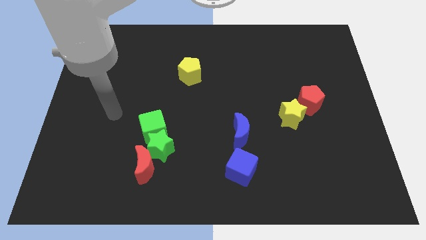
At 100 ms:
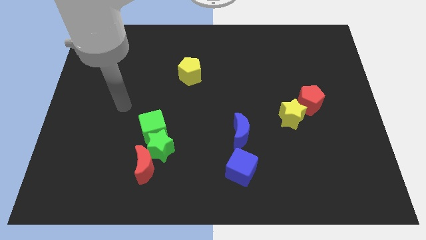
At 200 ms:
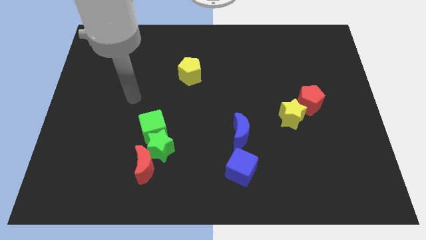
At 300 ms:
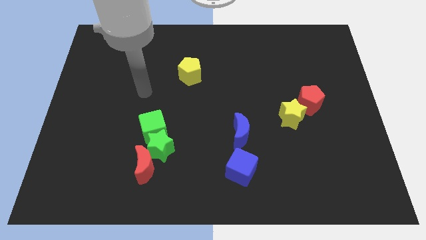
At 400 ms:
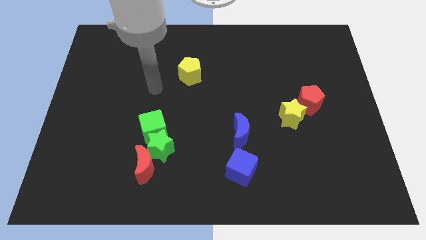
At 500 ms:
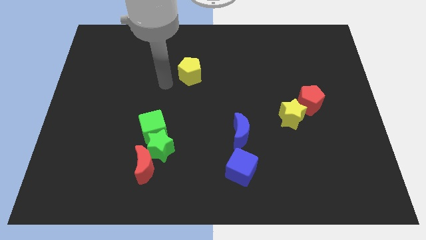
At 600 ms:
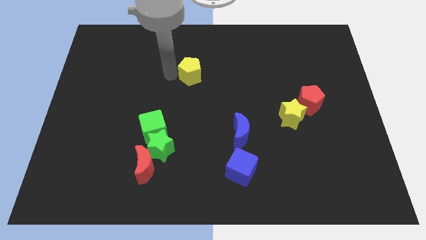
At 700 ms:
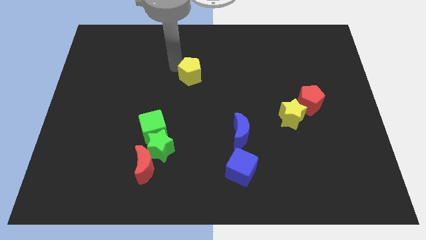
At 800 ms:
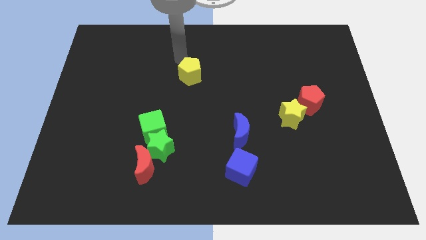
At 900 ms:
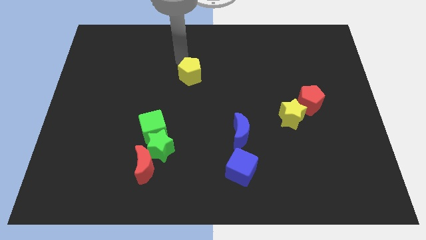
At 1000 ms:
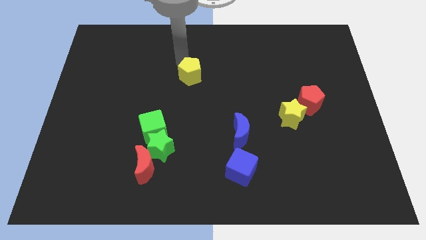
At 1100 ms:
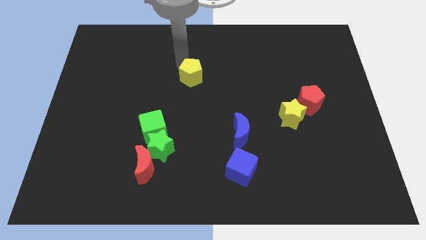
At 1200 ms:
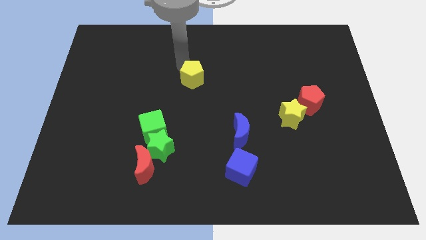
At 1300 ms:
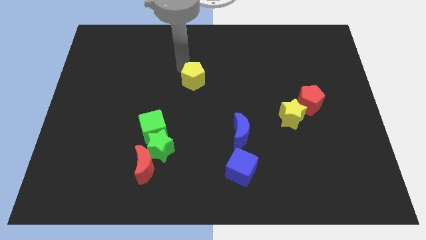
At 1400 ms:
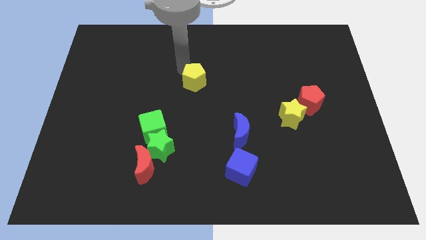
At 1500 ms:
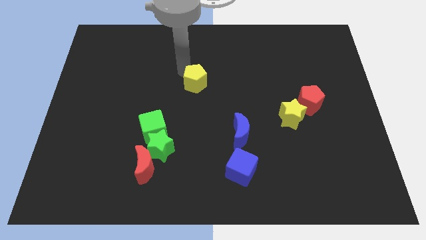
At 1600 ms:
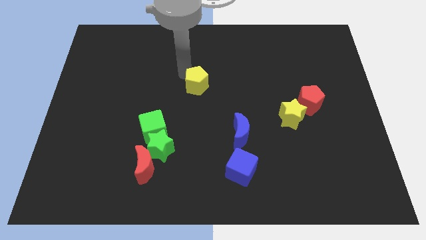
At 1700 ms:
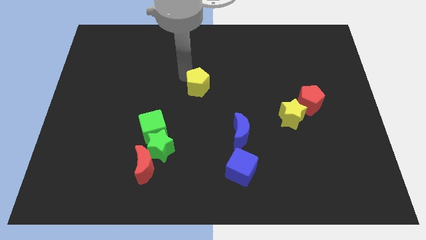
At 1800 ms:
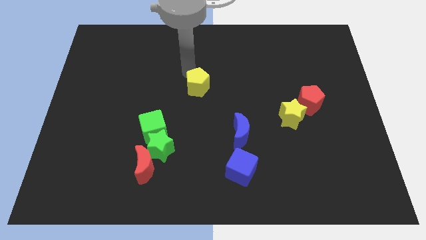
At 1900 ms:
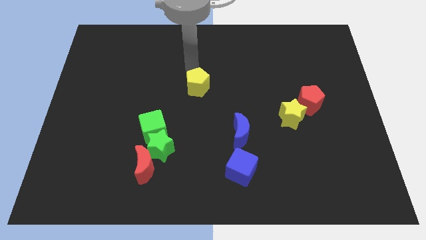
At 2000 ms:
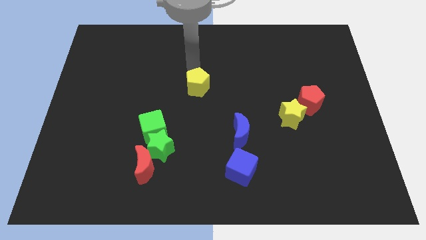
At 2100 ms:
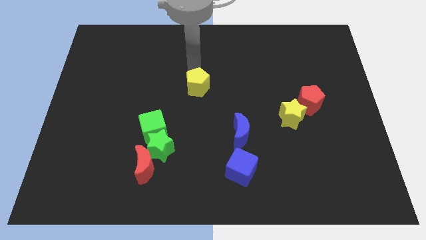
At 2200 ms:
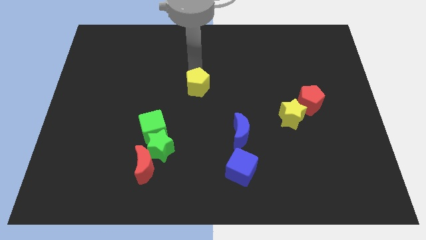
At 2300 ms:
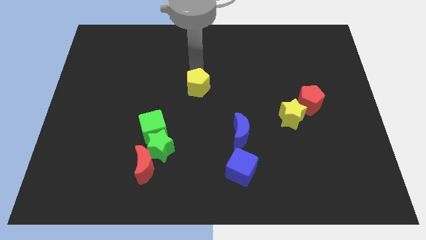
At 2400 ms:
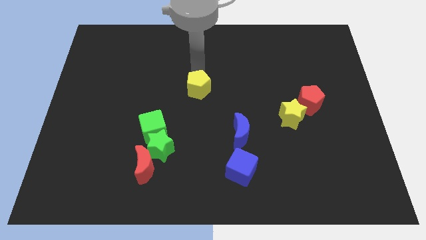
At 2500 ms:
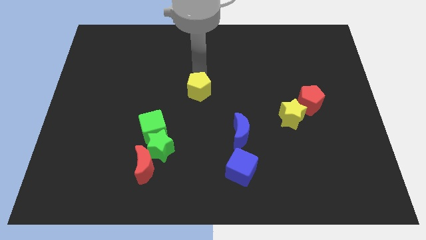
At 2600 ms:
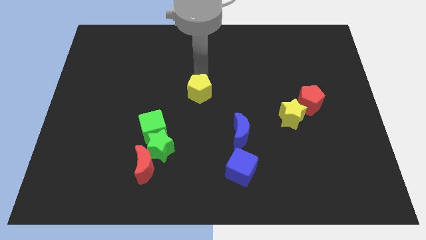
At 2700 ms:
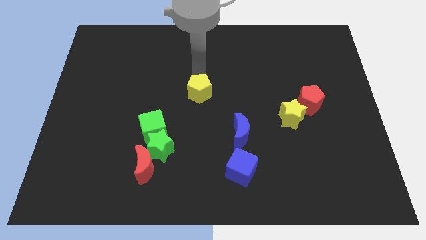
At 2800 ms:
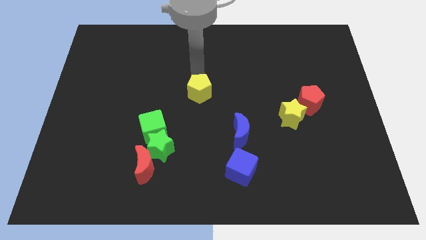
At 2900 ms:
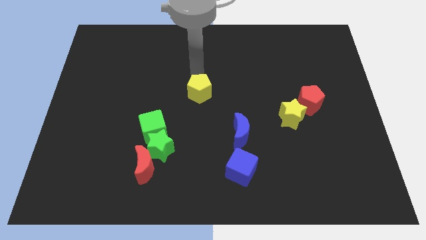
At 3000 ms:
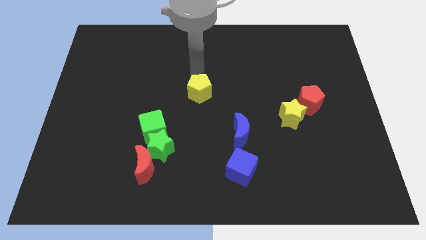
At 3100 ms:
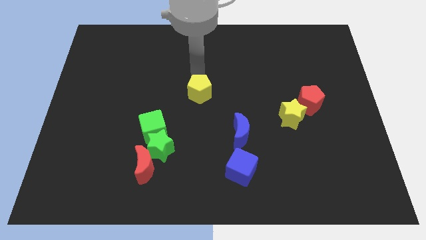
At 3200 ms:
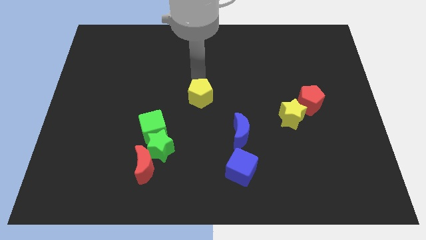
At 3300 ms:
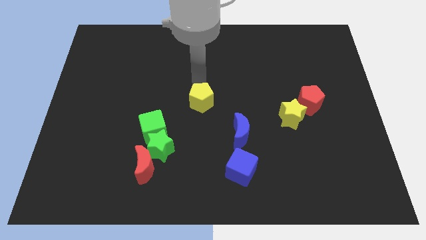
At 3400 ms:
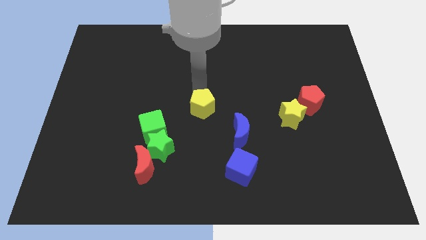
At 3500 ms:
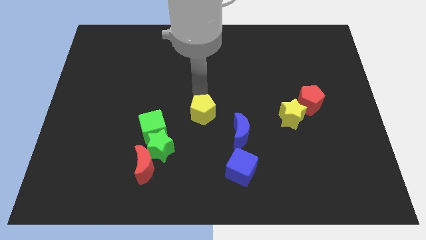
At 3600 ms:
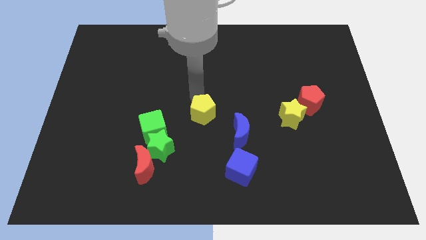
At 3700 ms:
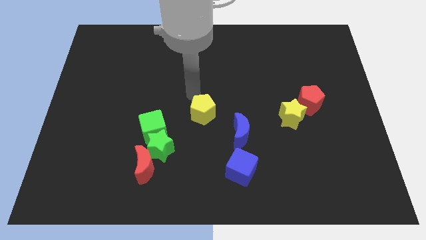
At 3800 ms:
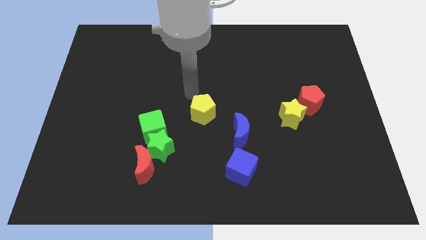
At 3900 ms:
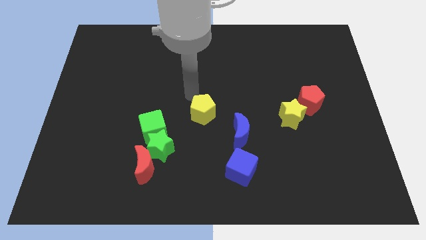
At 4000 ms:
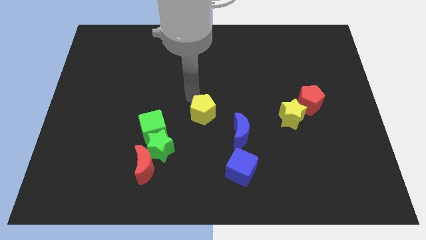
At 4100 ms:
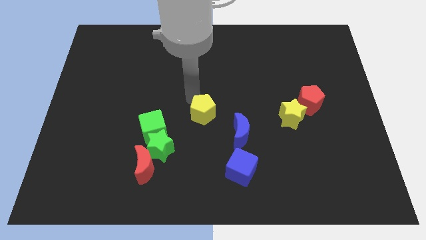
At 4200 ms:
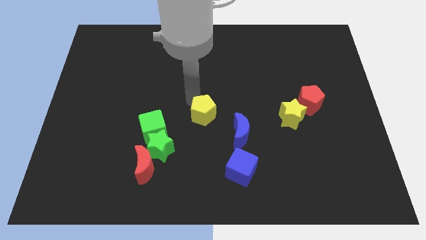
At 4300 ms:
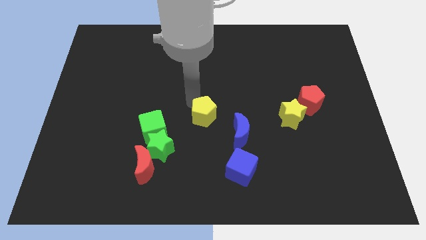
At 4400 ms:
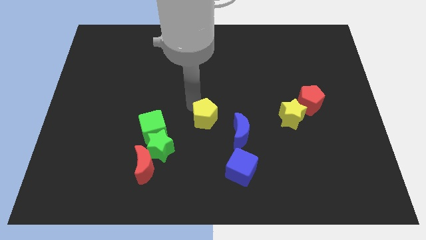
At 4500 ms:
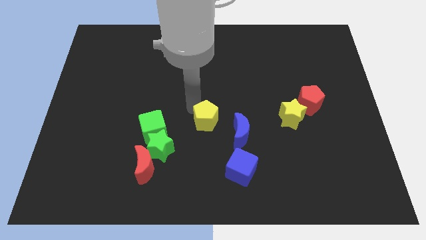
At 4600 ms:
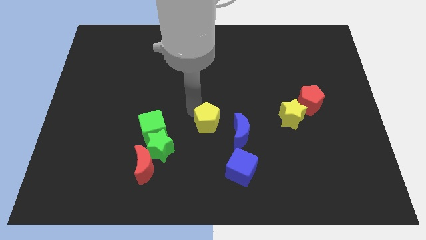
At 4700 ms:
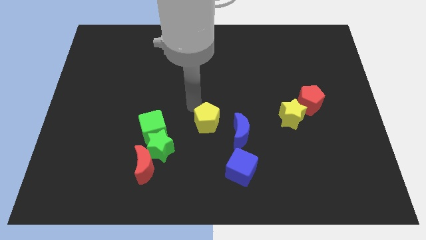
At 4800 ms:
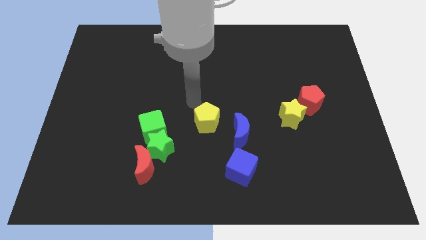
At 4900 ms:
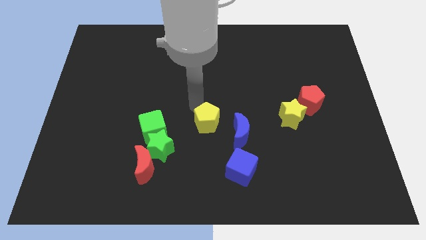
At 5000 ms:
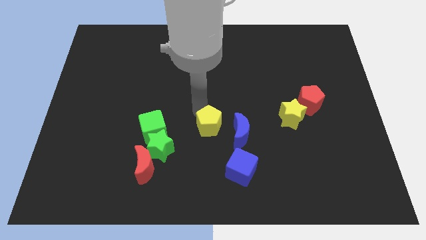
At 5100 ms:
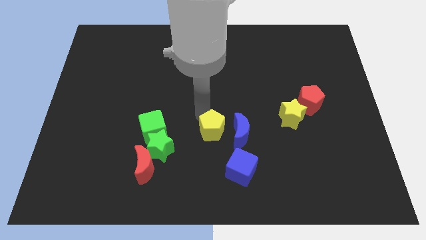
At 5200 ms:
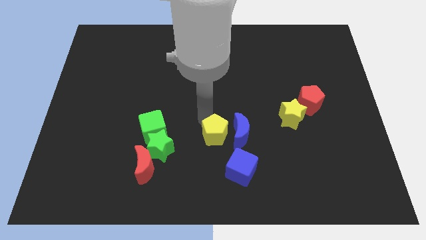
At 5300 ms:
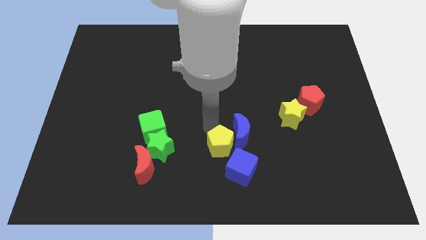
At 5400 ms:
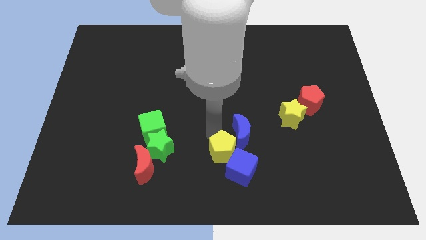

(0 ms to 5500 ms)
put the yellow pentagon close to the blue cube

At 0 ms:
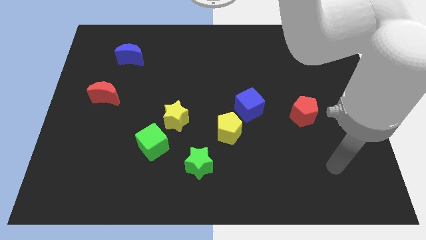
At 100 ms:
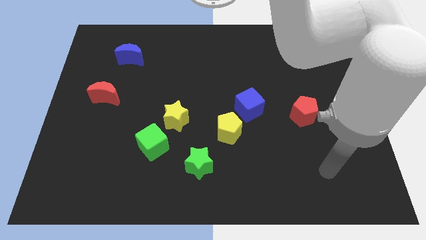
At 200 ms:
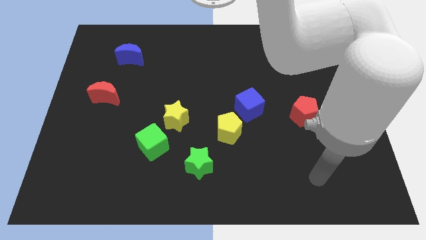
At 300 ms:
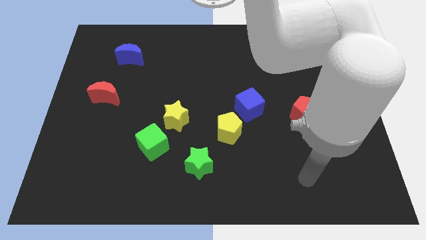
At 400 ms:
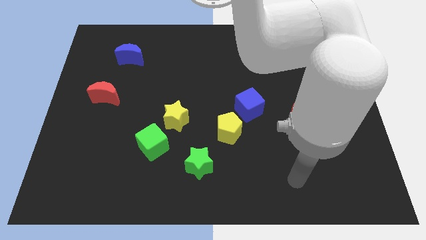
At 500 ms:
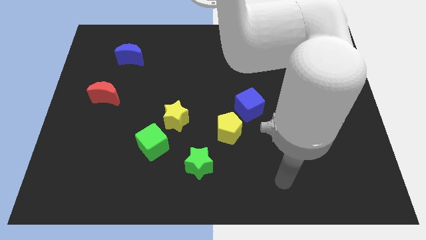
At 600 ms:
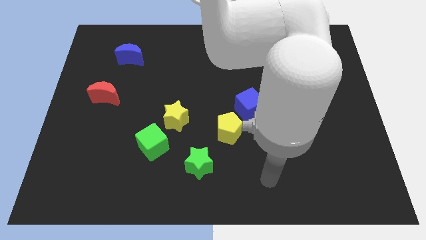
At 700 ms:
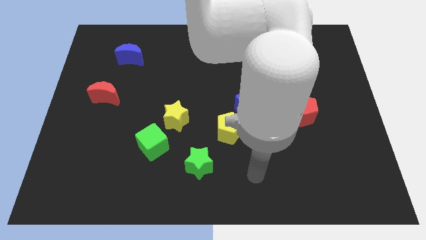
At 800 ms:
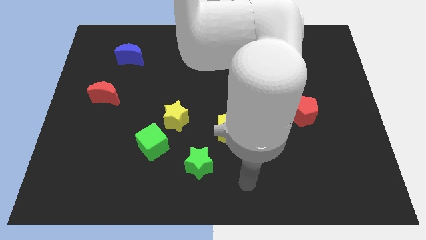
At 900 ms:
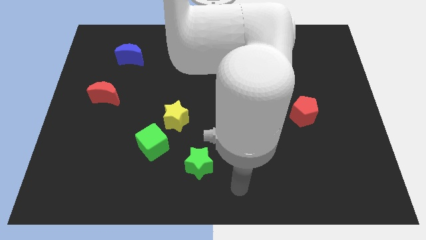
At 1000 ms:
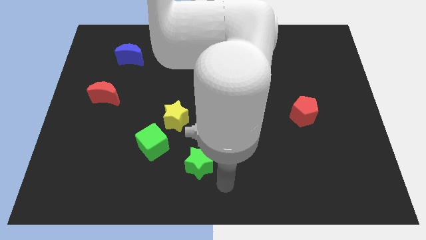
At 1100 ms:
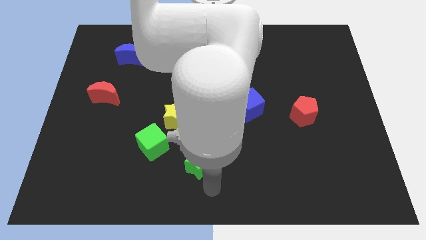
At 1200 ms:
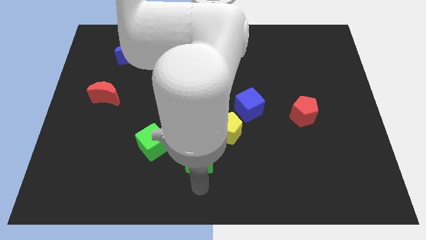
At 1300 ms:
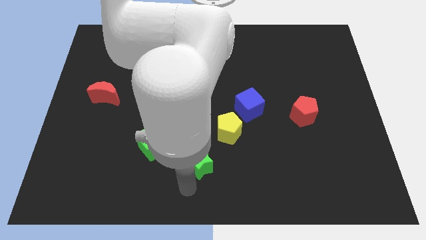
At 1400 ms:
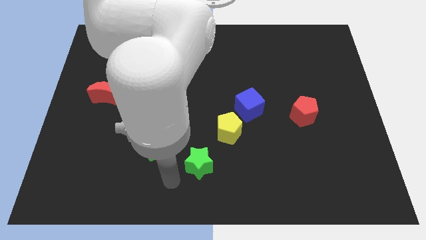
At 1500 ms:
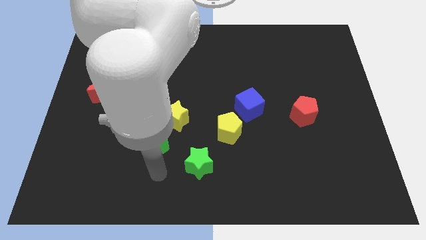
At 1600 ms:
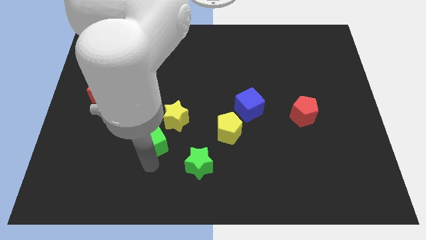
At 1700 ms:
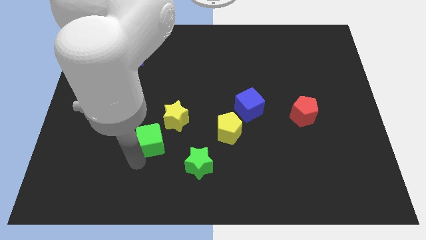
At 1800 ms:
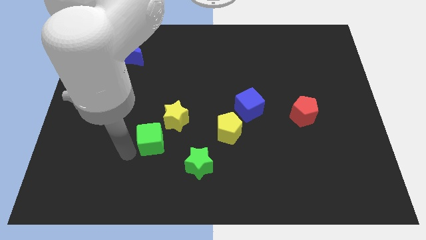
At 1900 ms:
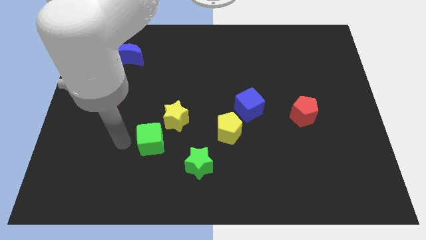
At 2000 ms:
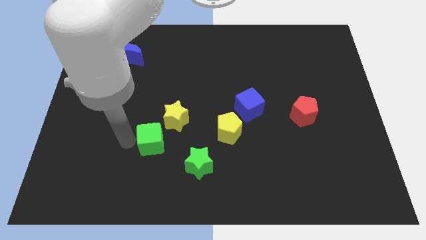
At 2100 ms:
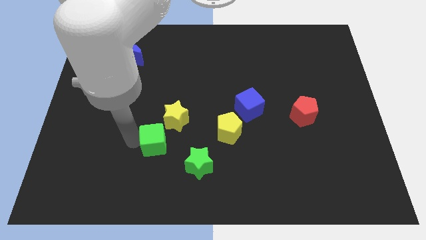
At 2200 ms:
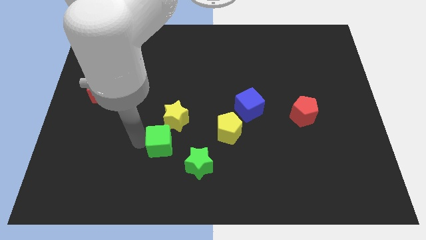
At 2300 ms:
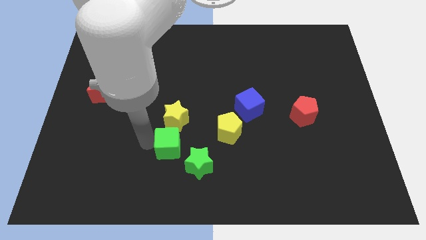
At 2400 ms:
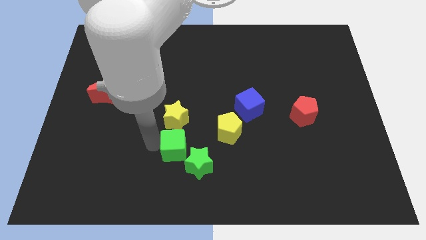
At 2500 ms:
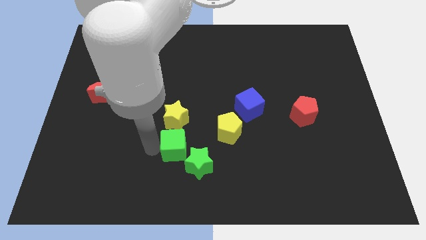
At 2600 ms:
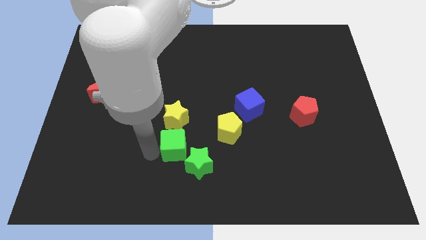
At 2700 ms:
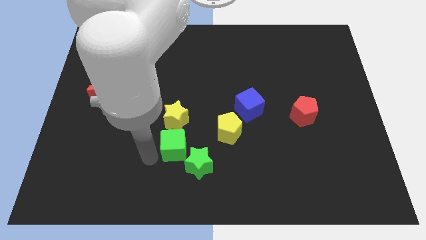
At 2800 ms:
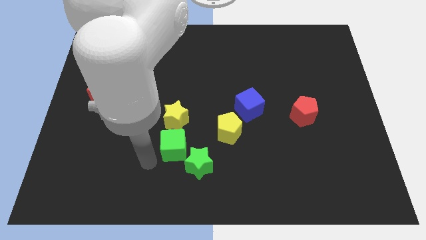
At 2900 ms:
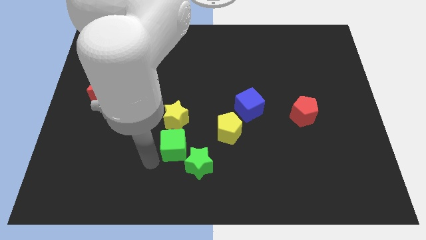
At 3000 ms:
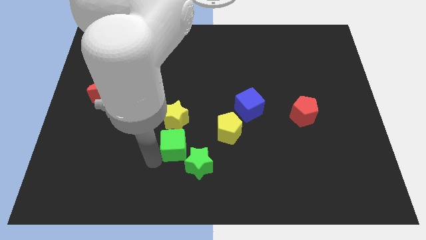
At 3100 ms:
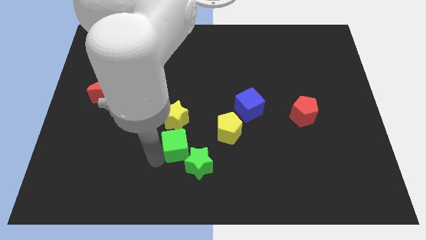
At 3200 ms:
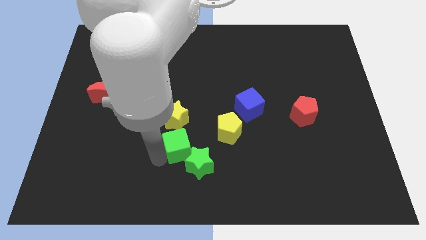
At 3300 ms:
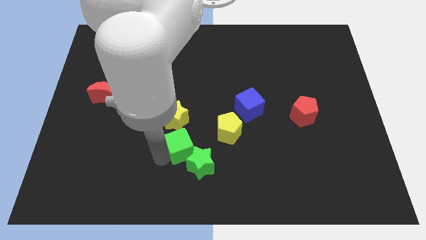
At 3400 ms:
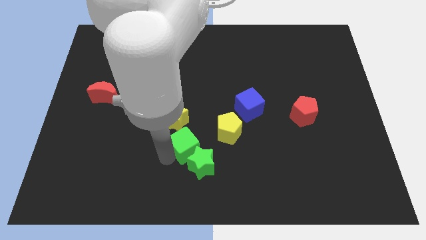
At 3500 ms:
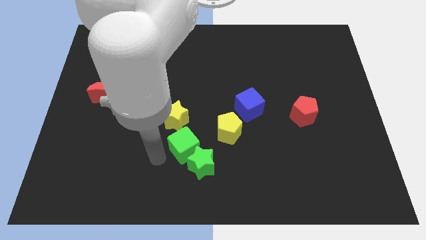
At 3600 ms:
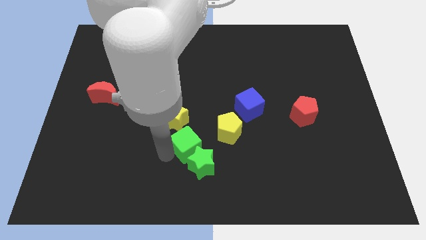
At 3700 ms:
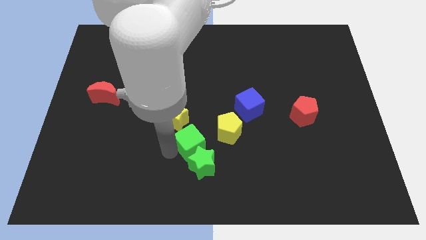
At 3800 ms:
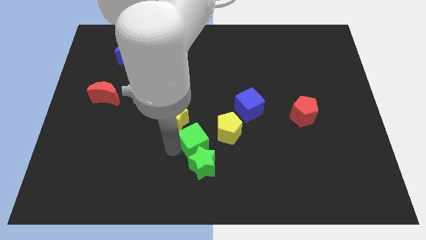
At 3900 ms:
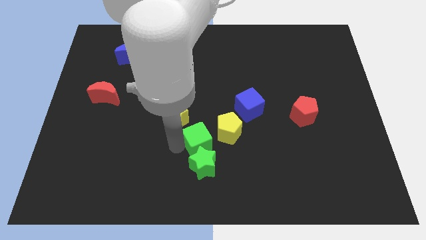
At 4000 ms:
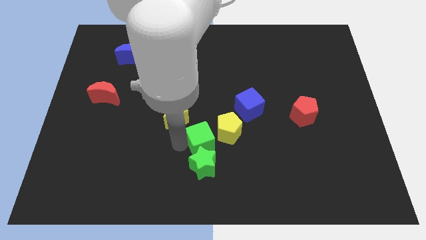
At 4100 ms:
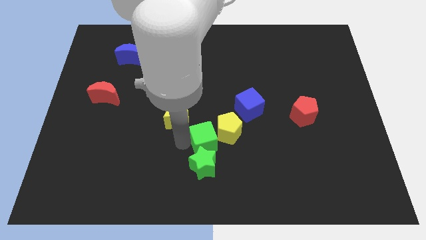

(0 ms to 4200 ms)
put the green cube to the yellow pentagon
